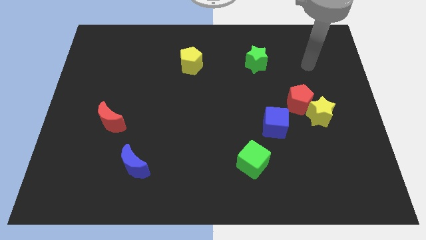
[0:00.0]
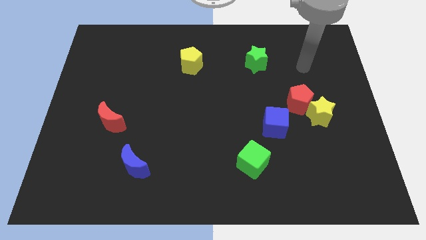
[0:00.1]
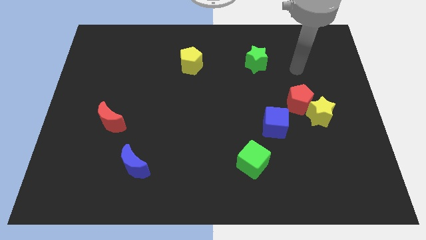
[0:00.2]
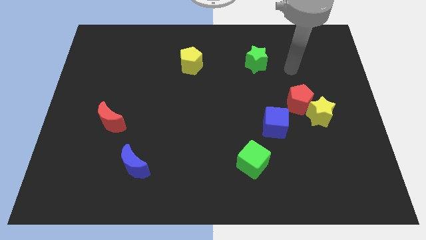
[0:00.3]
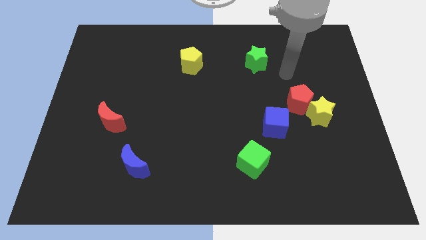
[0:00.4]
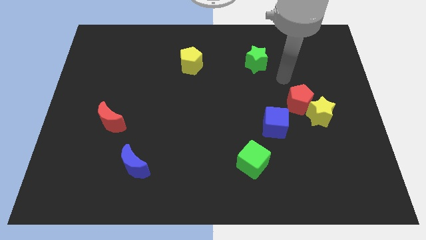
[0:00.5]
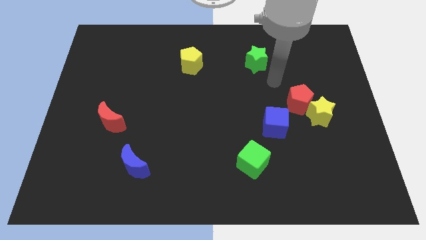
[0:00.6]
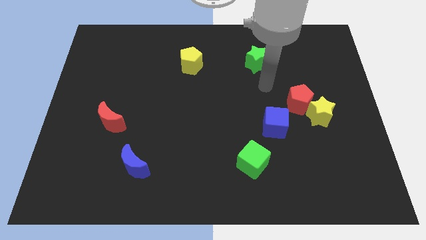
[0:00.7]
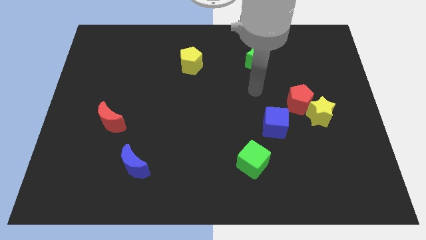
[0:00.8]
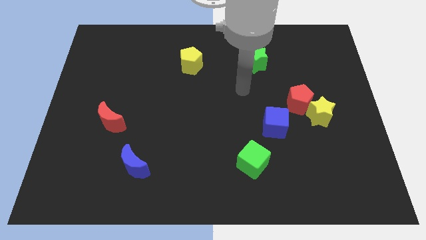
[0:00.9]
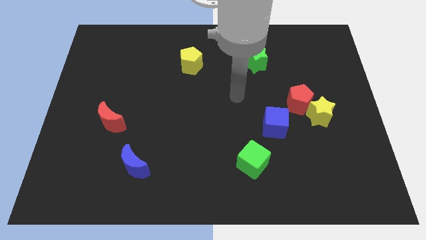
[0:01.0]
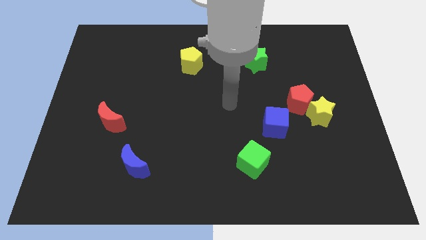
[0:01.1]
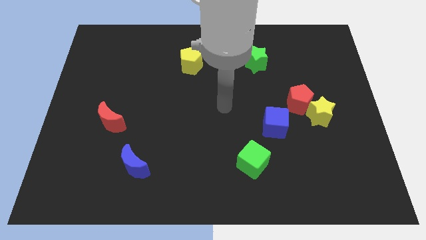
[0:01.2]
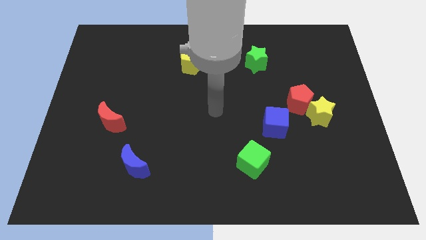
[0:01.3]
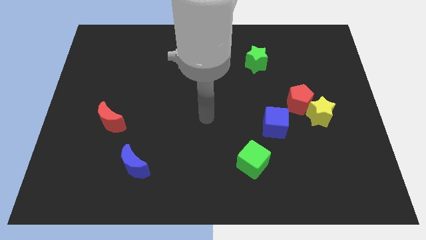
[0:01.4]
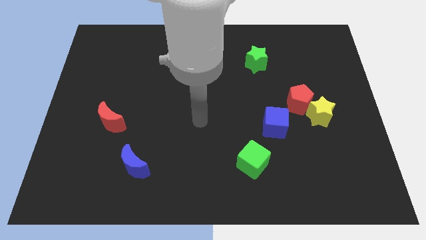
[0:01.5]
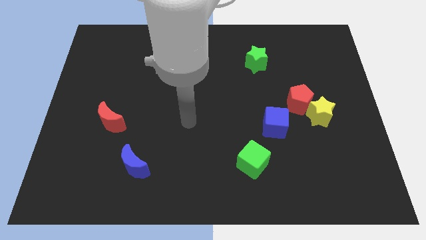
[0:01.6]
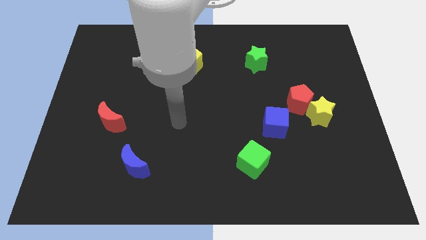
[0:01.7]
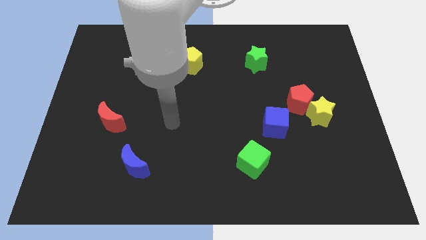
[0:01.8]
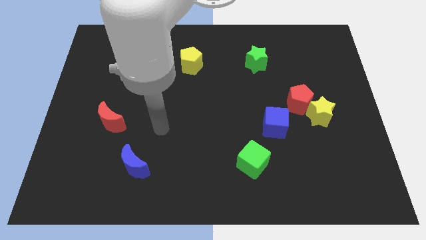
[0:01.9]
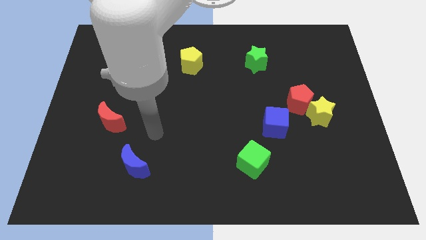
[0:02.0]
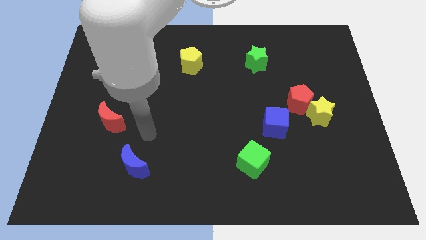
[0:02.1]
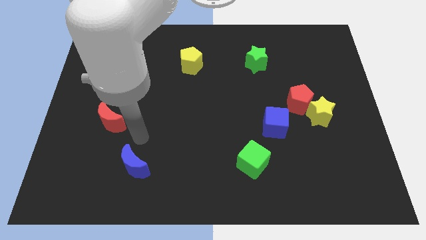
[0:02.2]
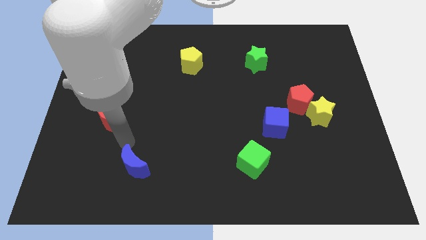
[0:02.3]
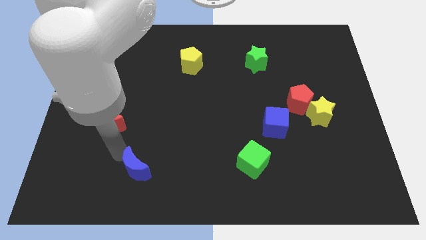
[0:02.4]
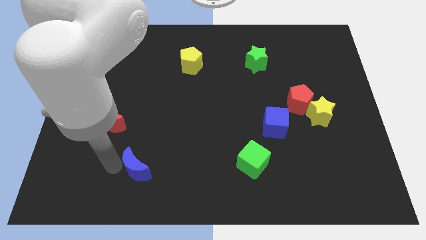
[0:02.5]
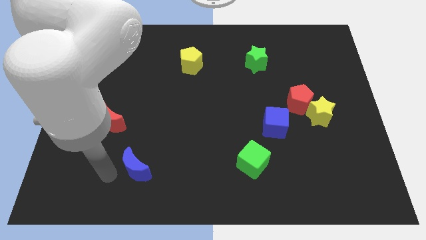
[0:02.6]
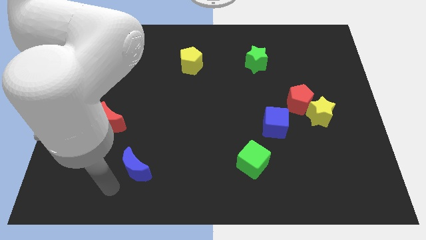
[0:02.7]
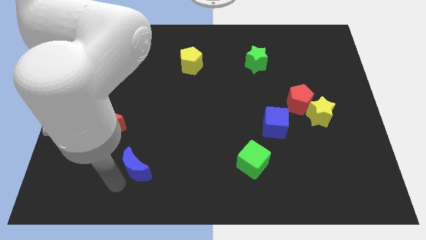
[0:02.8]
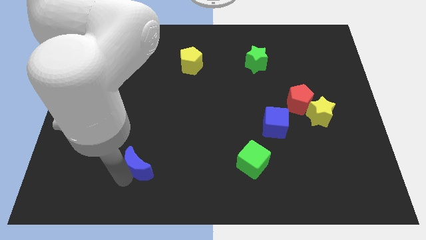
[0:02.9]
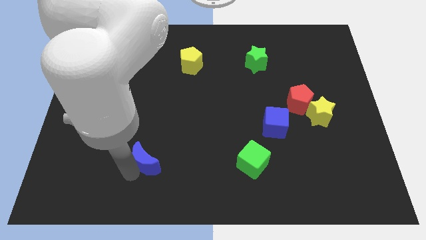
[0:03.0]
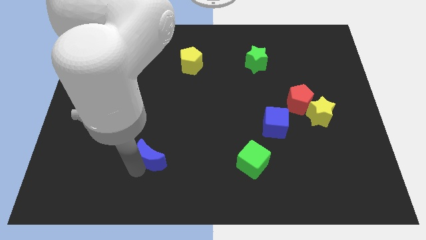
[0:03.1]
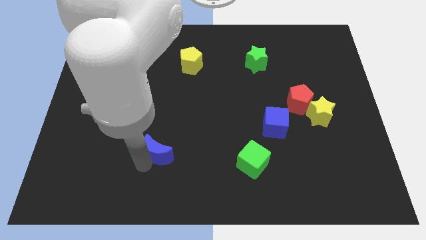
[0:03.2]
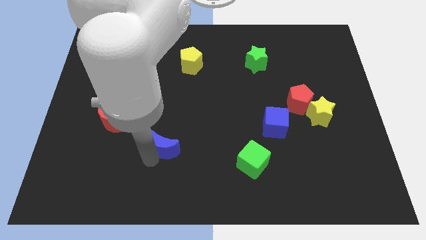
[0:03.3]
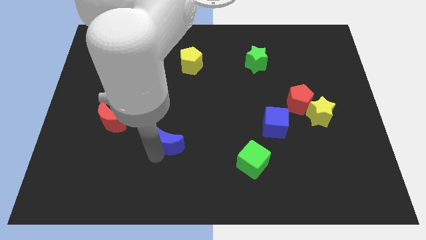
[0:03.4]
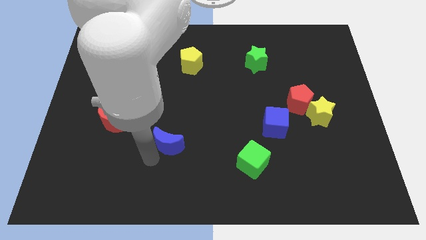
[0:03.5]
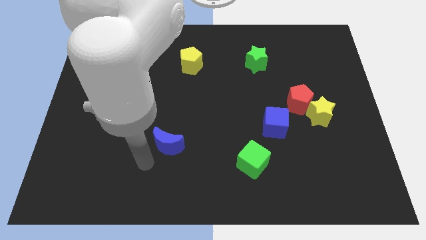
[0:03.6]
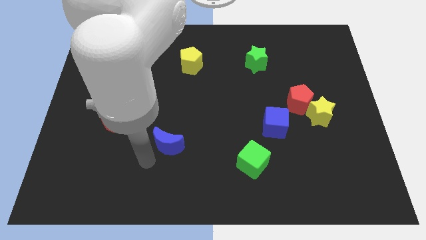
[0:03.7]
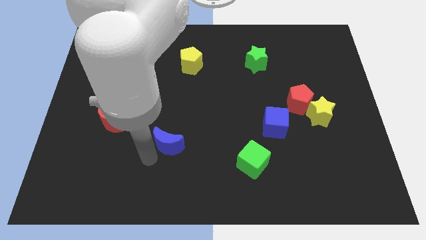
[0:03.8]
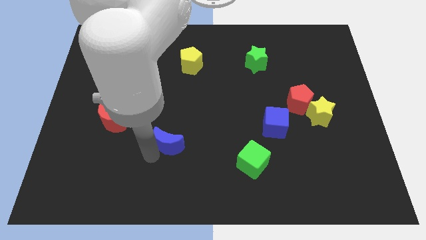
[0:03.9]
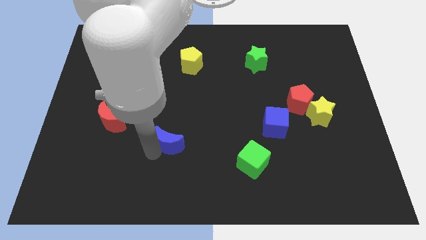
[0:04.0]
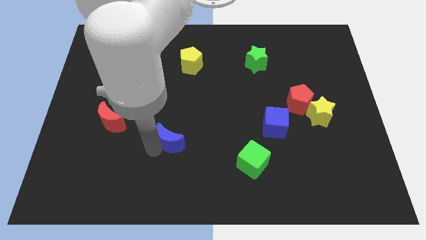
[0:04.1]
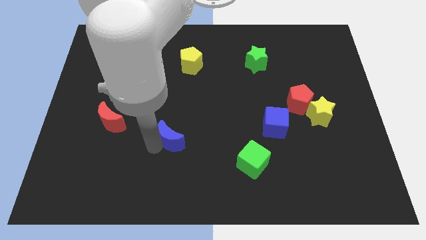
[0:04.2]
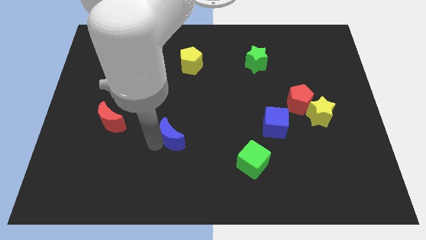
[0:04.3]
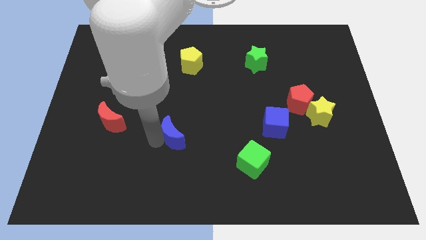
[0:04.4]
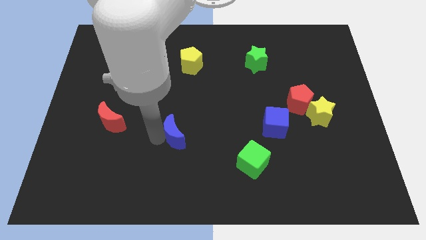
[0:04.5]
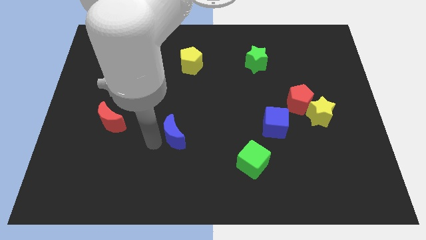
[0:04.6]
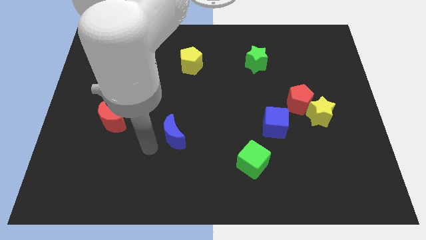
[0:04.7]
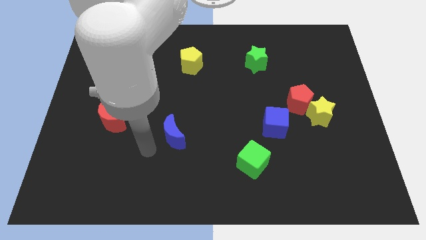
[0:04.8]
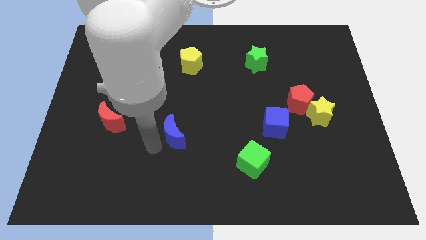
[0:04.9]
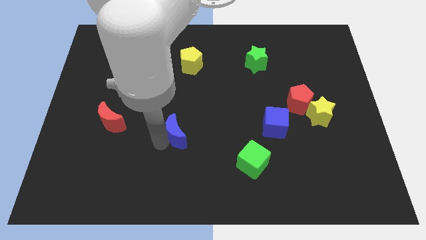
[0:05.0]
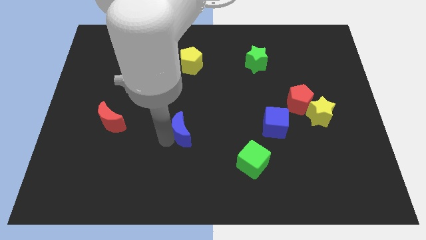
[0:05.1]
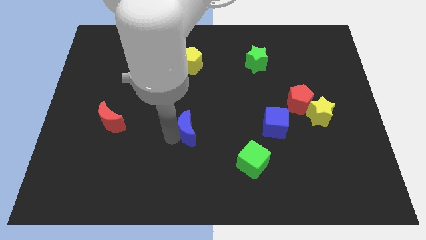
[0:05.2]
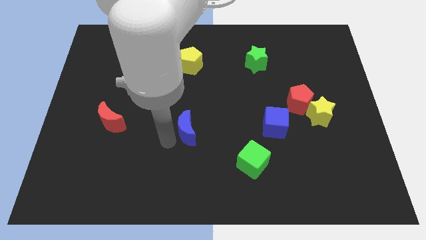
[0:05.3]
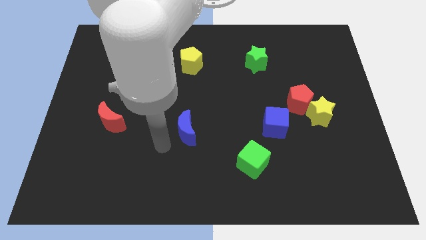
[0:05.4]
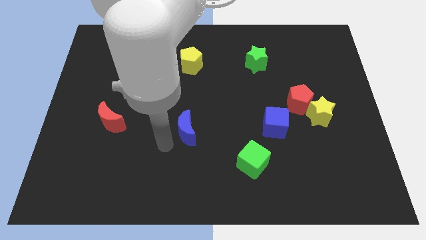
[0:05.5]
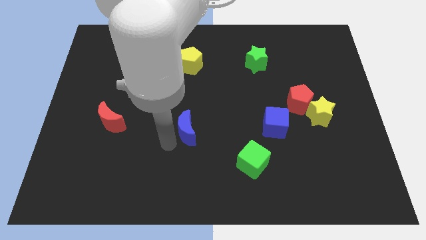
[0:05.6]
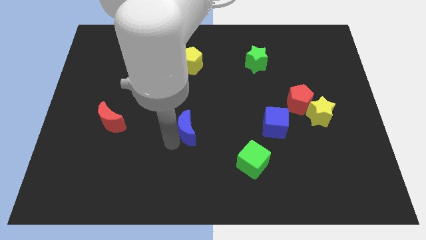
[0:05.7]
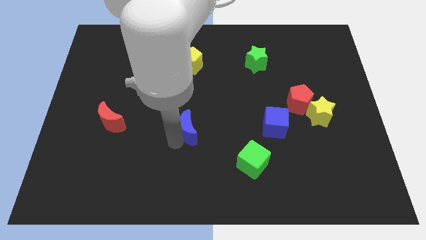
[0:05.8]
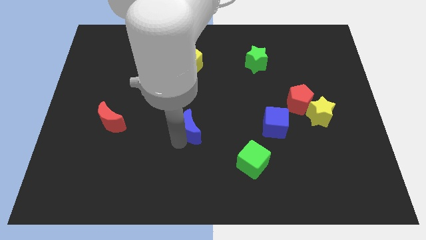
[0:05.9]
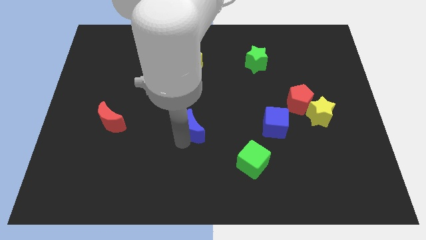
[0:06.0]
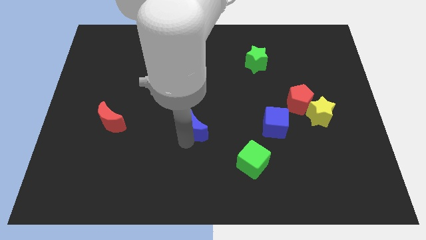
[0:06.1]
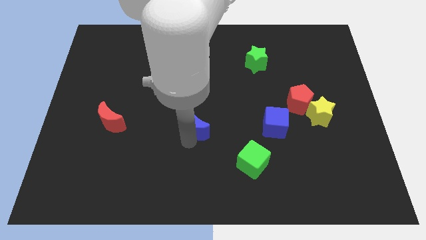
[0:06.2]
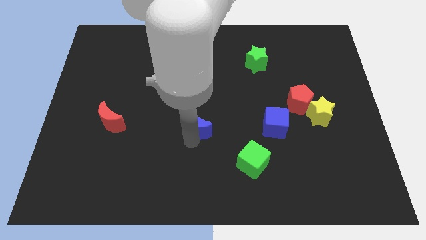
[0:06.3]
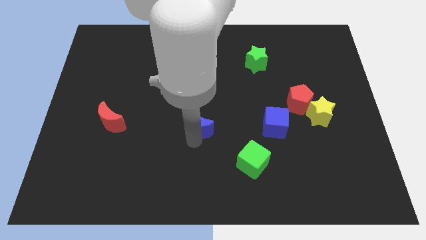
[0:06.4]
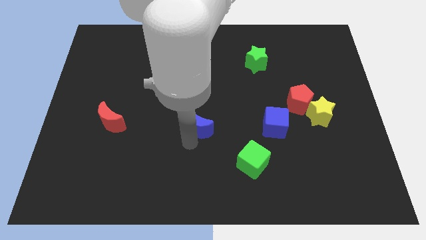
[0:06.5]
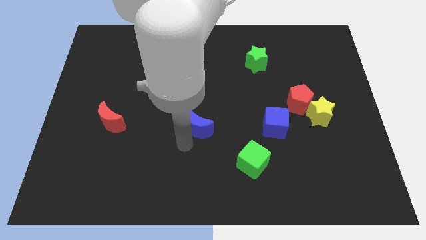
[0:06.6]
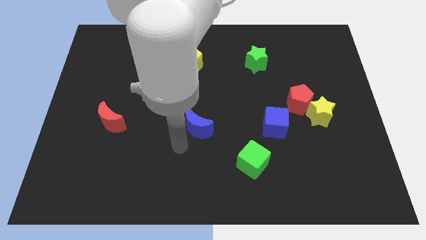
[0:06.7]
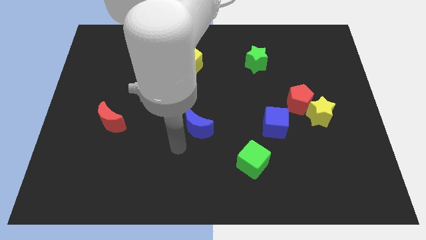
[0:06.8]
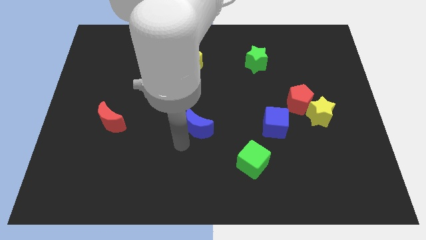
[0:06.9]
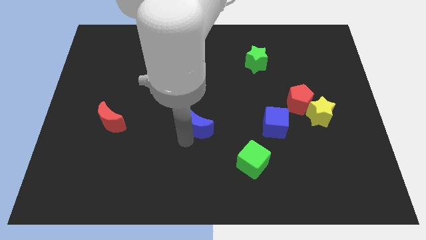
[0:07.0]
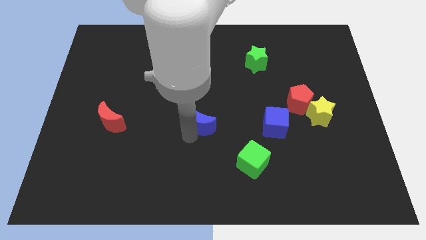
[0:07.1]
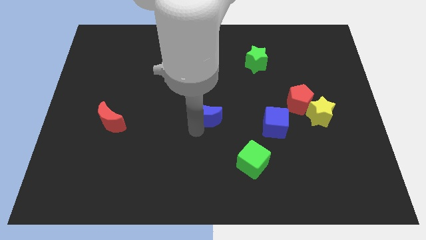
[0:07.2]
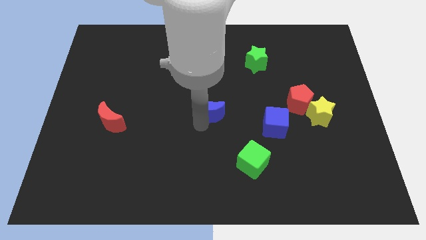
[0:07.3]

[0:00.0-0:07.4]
push the blue moon upwards and right diagonally

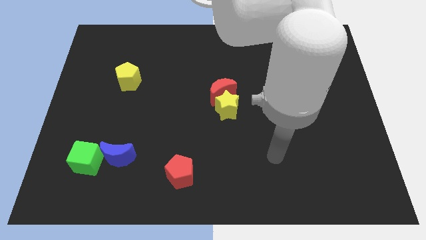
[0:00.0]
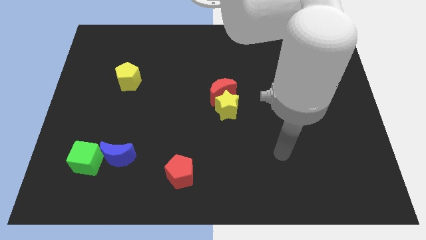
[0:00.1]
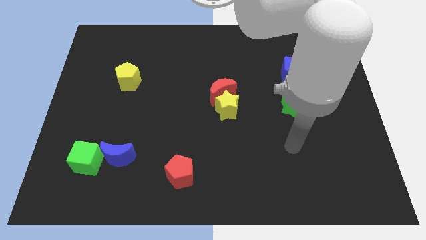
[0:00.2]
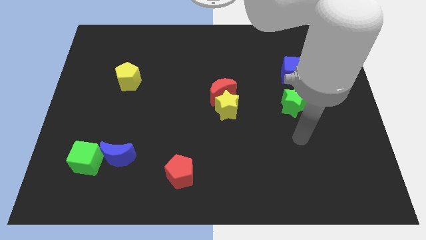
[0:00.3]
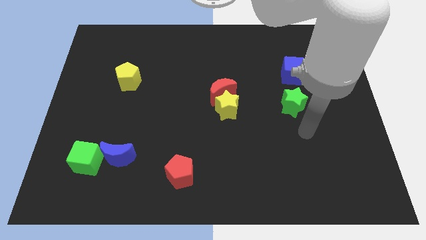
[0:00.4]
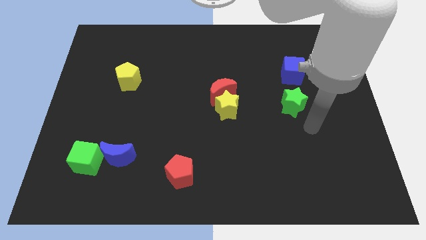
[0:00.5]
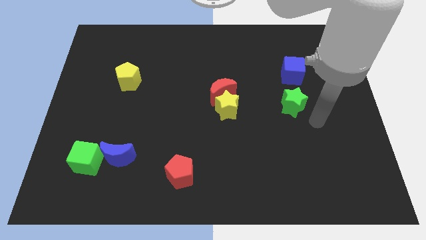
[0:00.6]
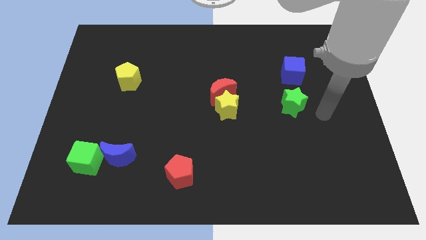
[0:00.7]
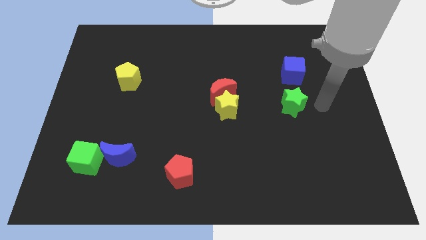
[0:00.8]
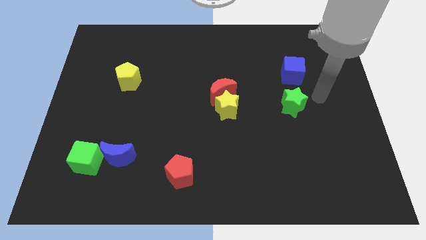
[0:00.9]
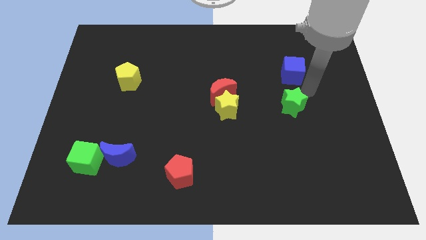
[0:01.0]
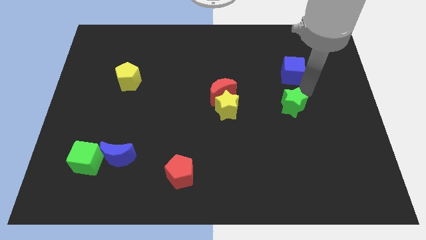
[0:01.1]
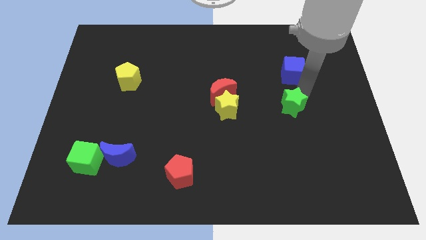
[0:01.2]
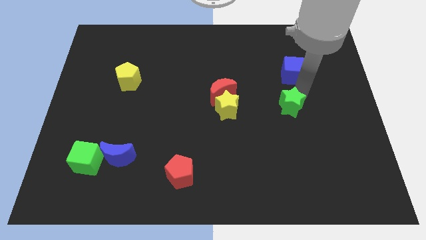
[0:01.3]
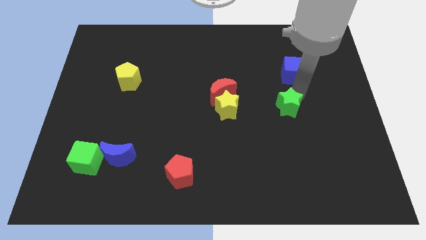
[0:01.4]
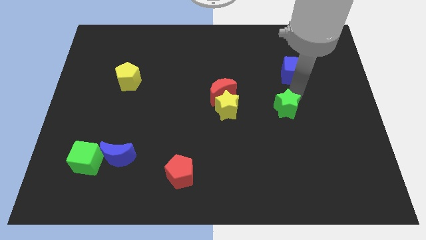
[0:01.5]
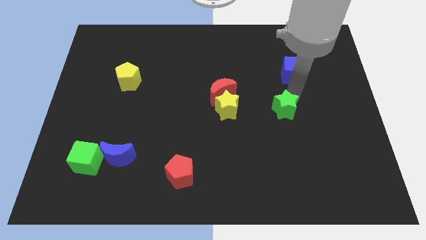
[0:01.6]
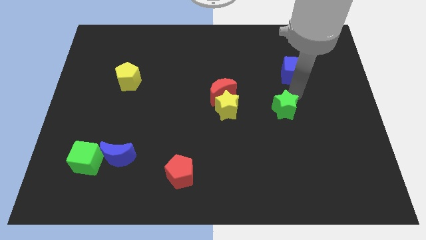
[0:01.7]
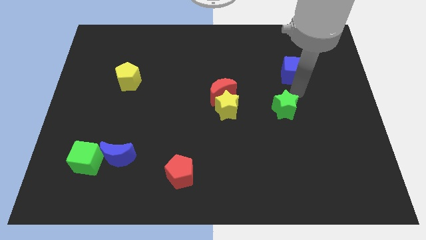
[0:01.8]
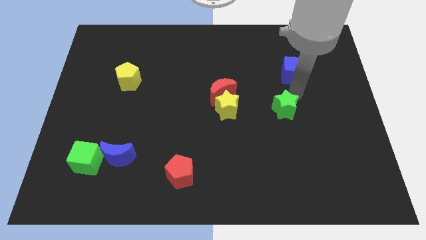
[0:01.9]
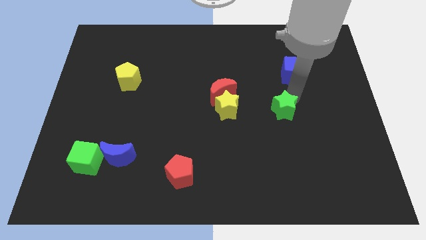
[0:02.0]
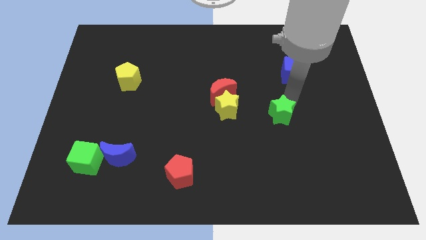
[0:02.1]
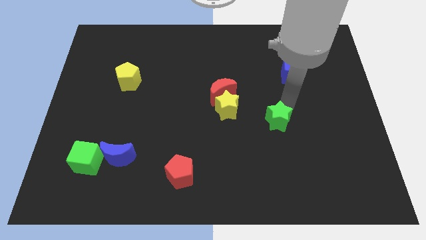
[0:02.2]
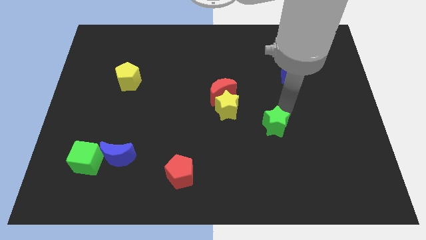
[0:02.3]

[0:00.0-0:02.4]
move the green star down and then to the left a bit
